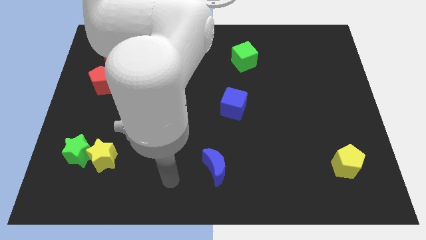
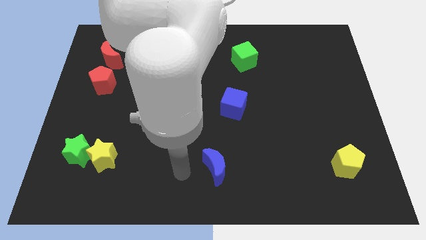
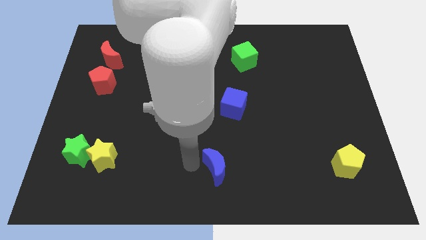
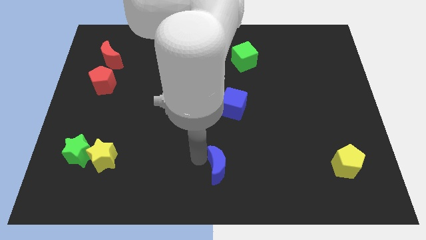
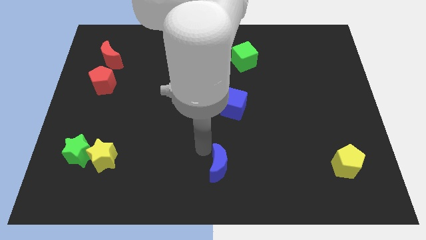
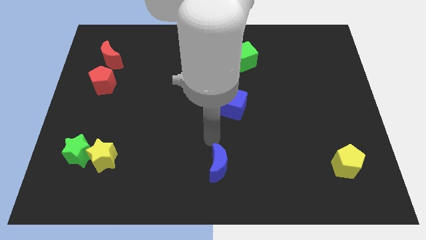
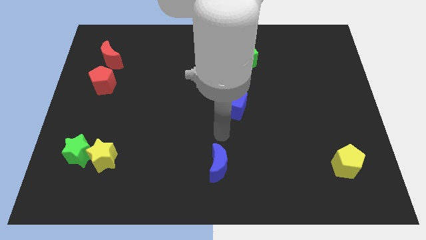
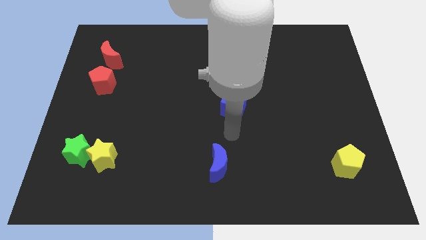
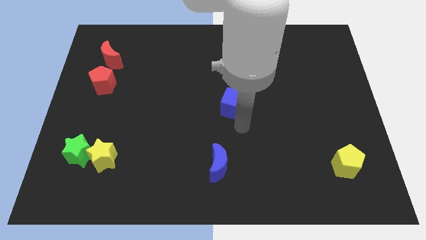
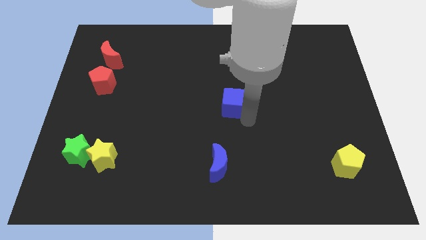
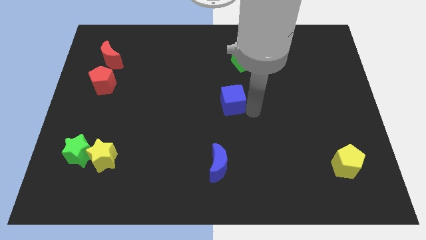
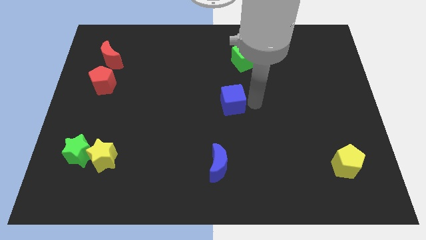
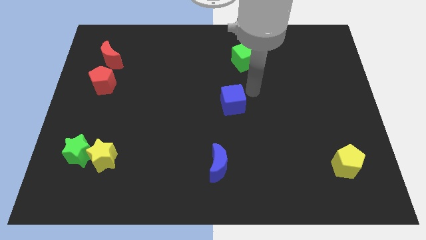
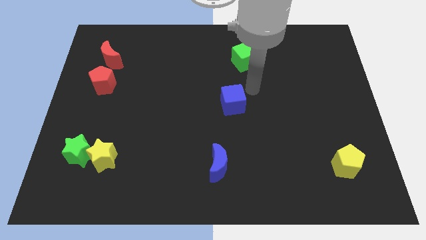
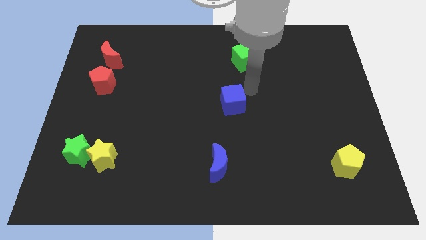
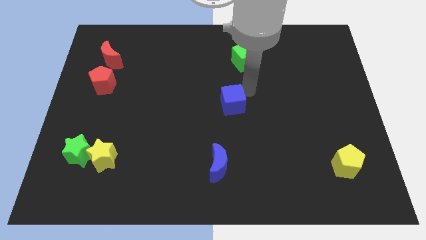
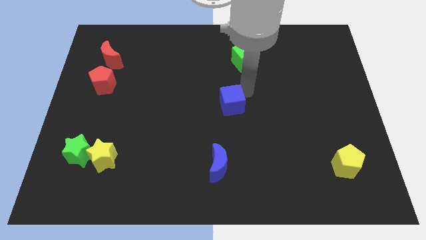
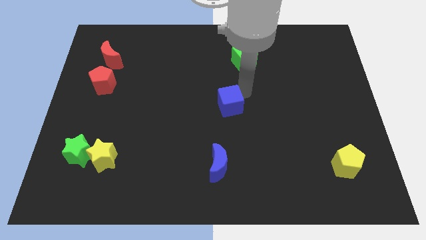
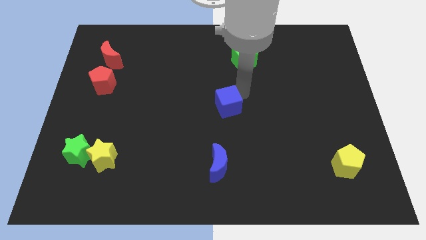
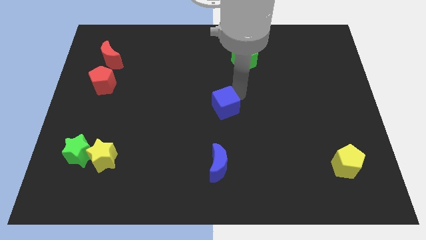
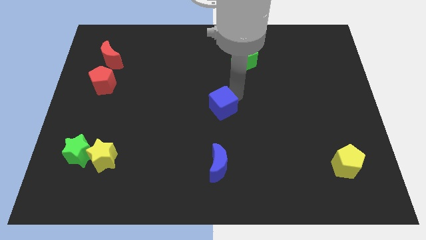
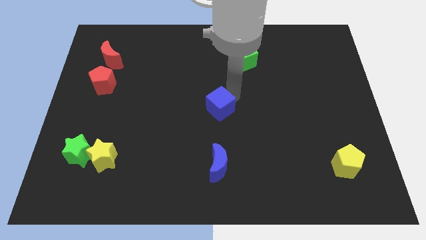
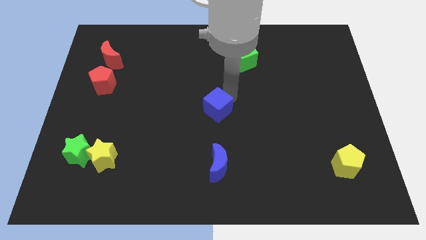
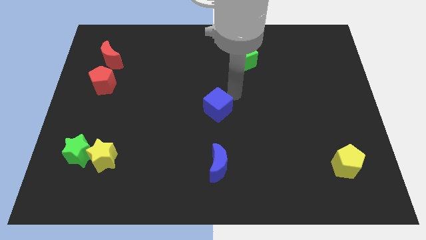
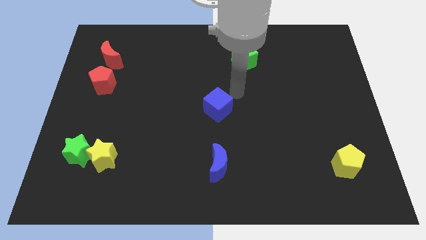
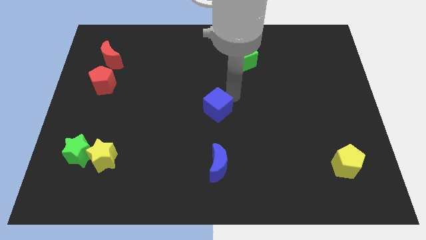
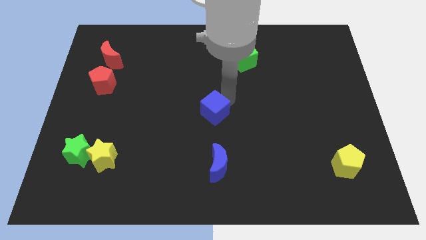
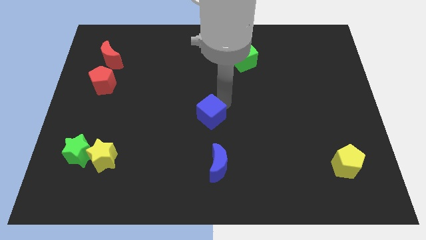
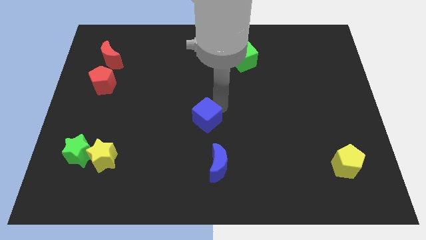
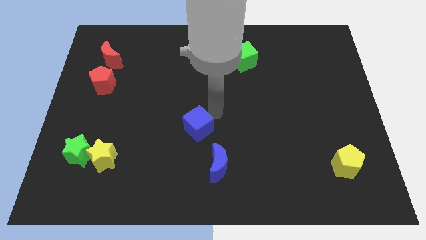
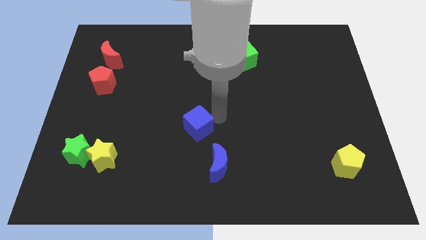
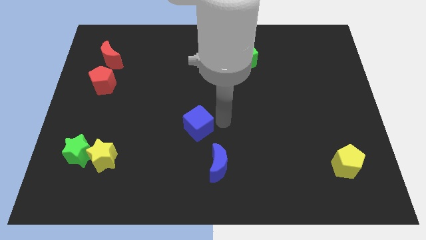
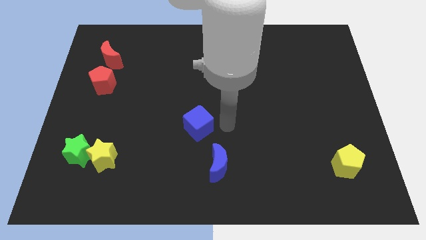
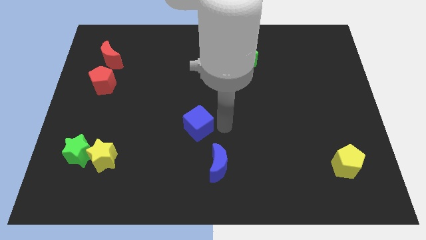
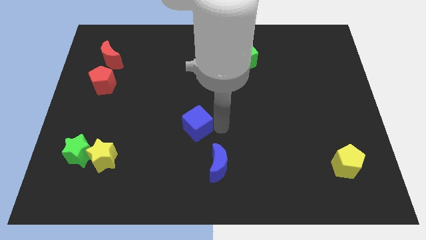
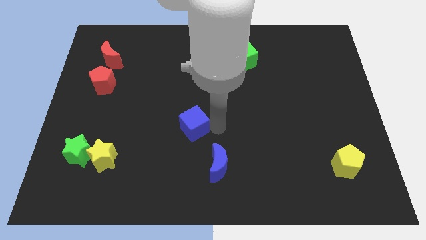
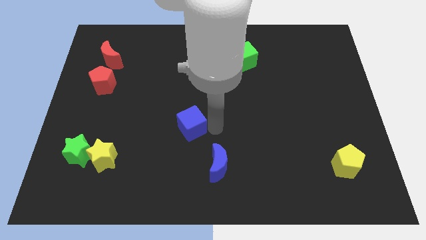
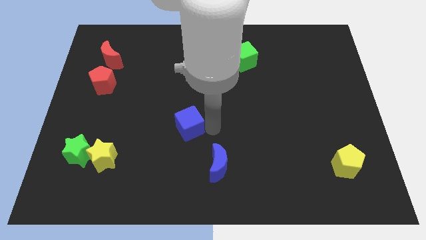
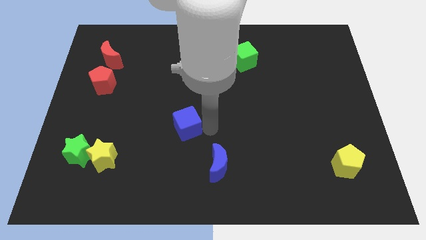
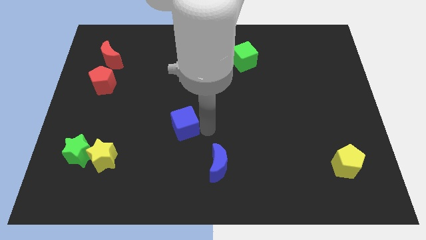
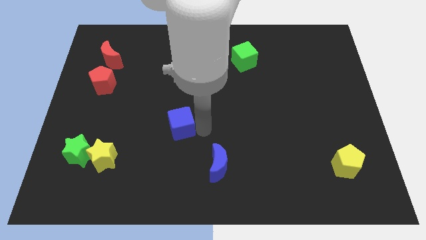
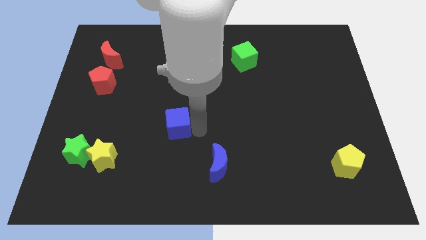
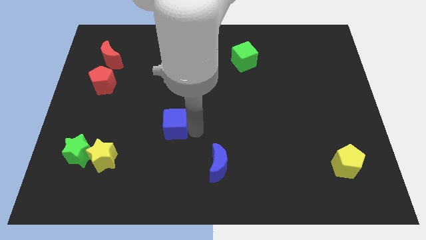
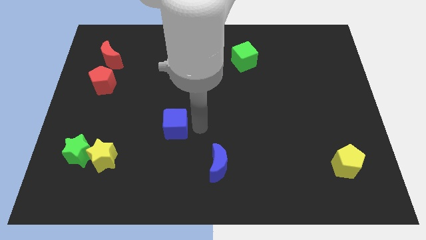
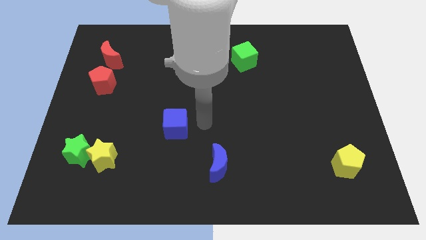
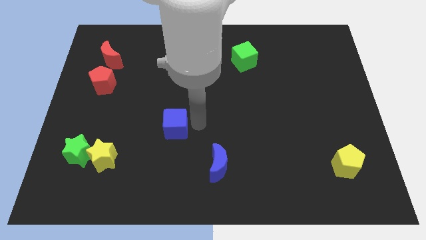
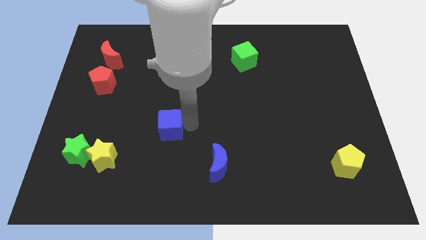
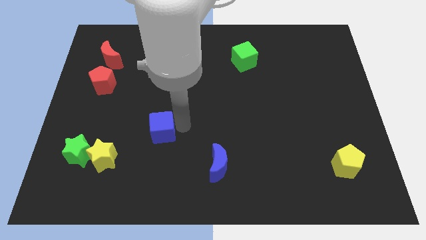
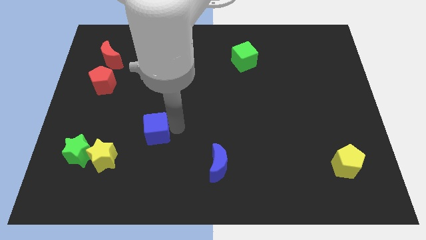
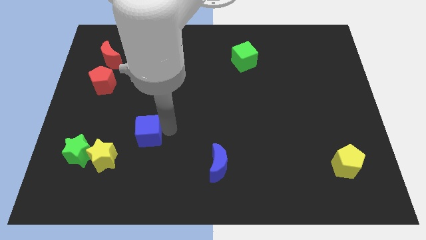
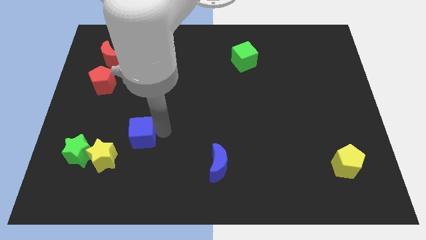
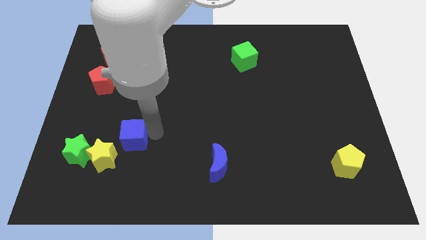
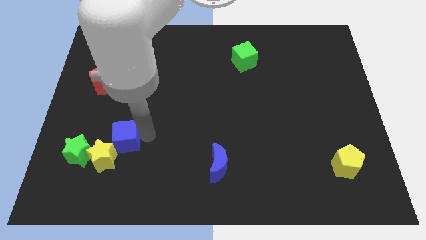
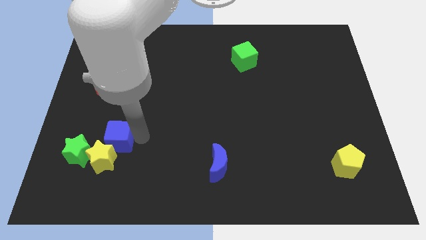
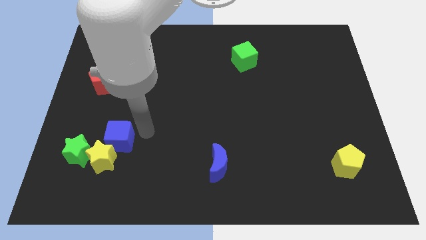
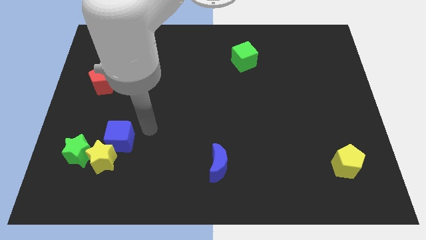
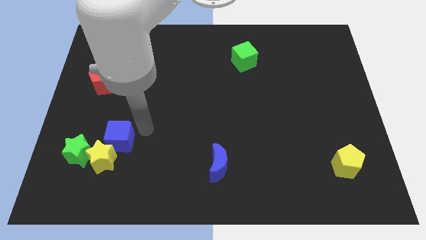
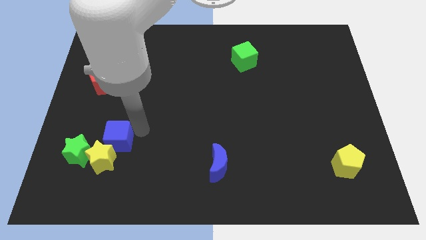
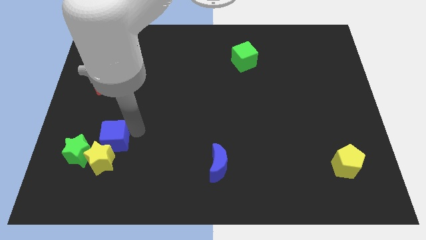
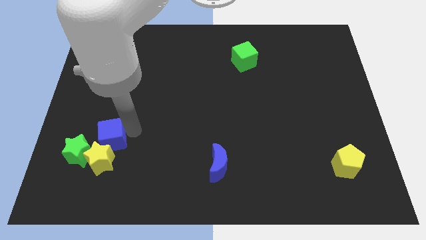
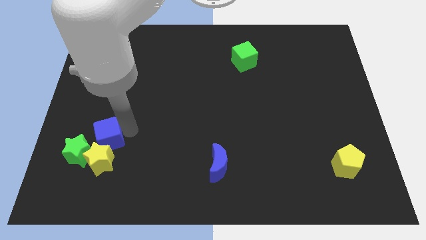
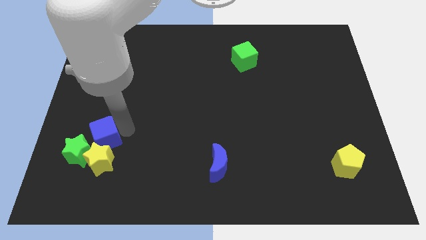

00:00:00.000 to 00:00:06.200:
move the blue cube next to the green star

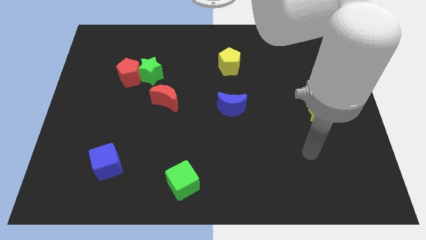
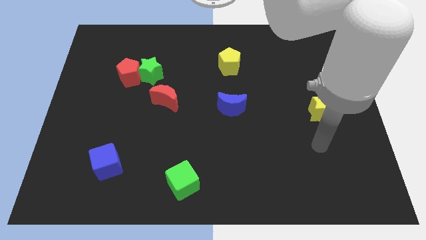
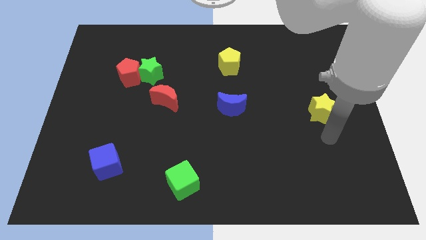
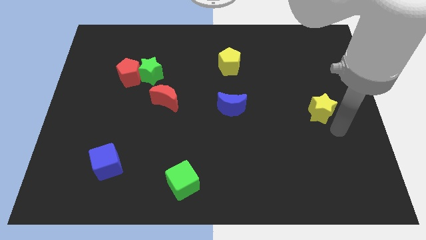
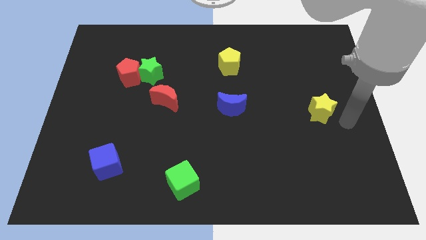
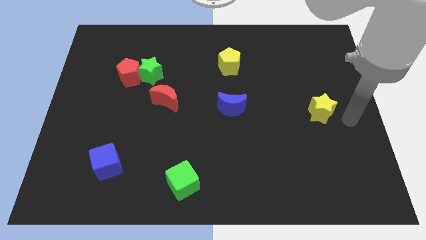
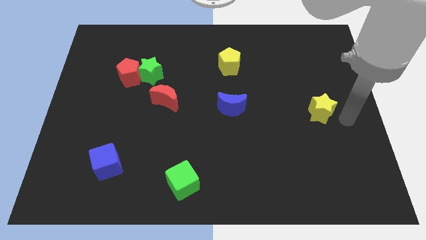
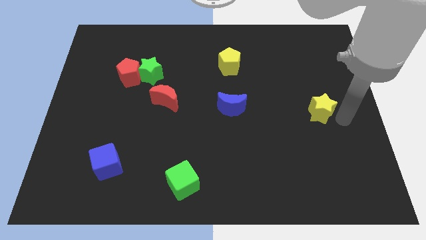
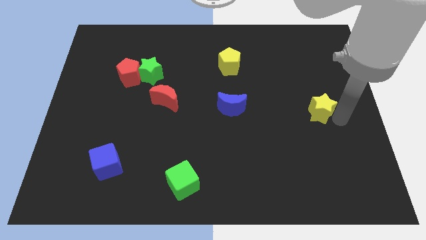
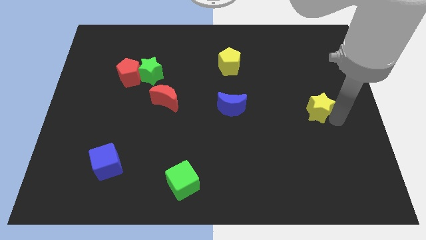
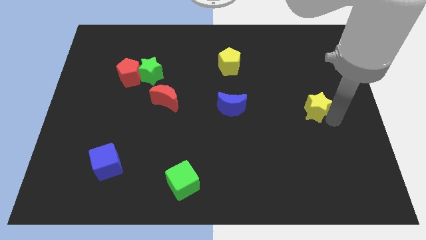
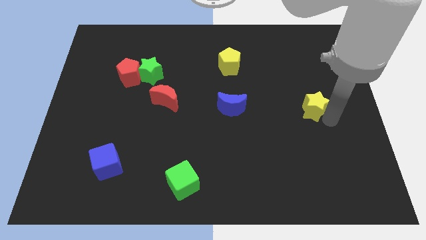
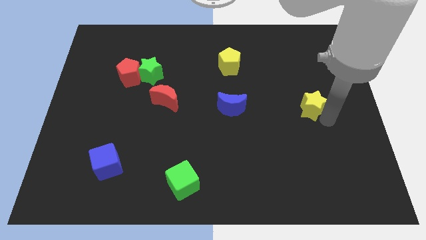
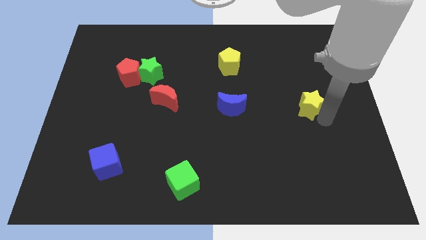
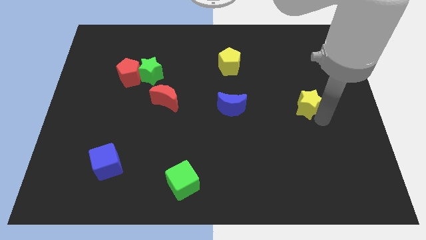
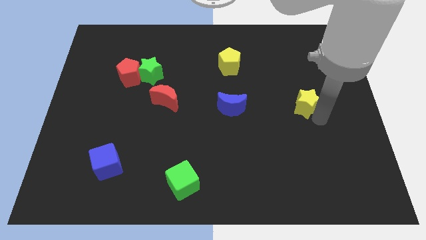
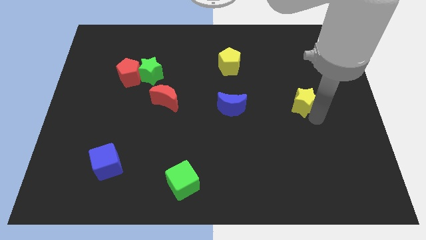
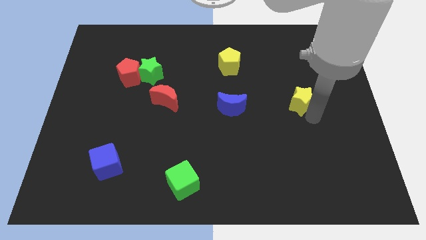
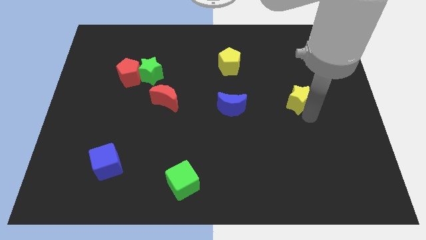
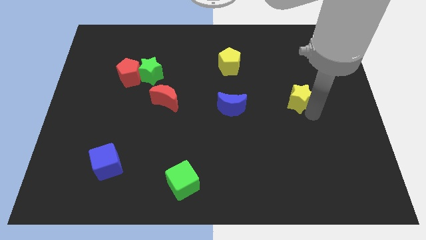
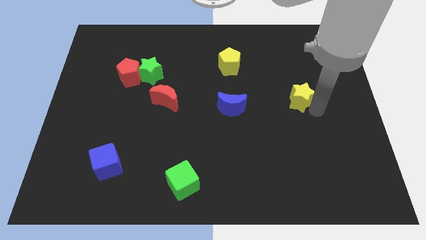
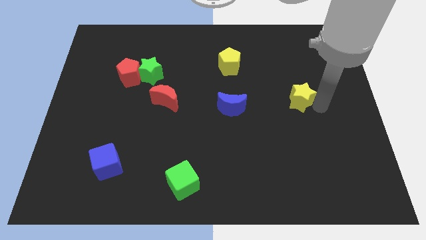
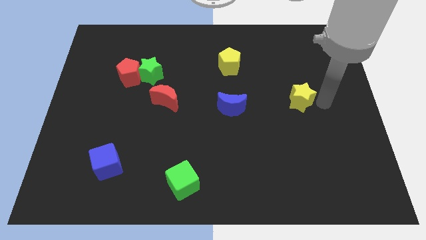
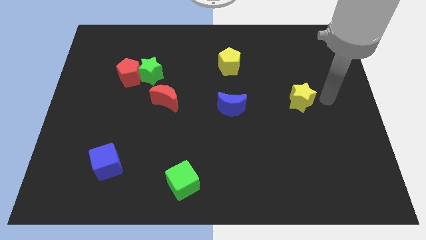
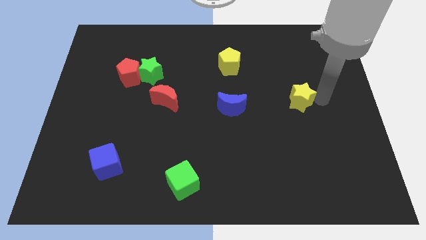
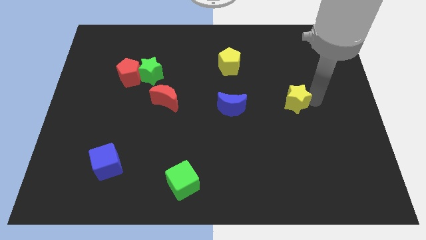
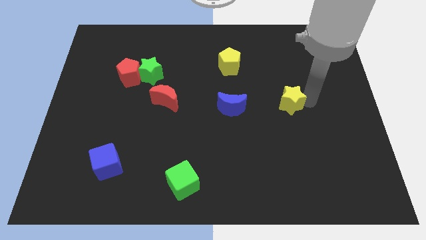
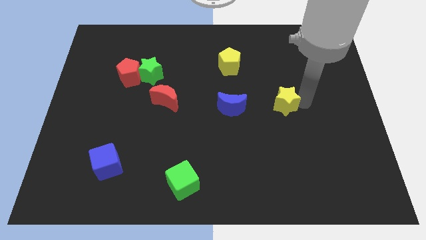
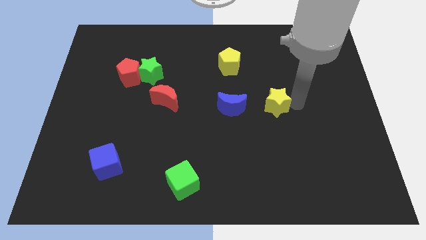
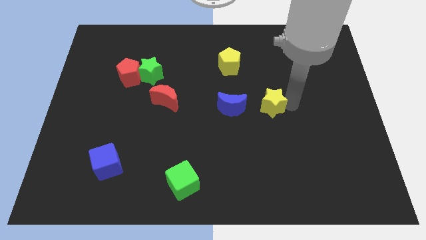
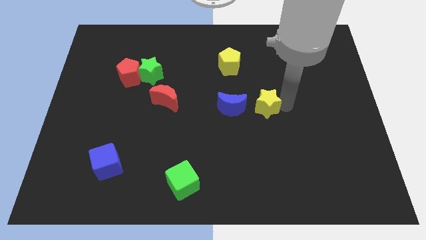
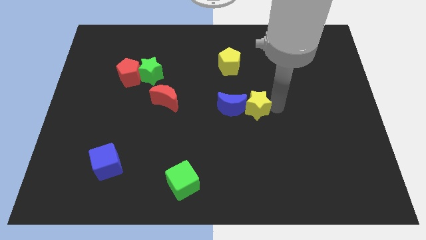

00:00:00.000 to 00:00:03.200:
slide the yellow star to the blue moon
